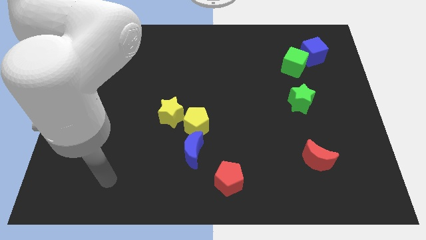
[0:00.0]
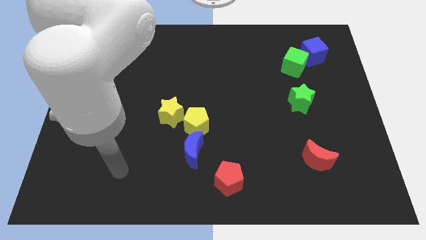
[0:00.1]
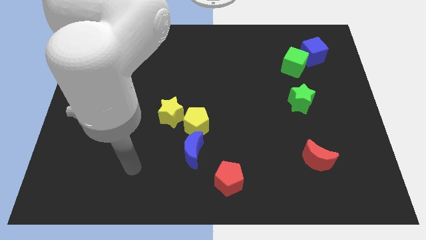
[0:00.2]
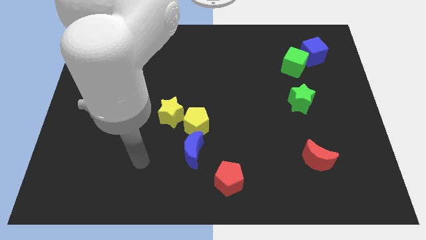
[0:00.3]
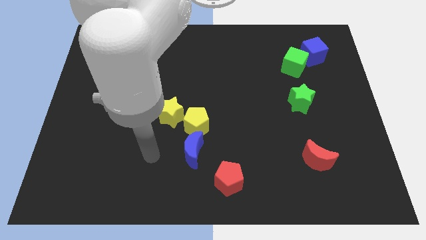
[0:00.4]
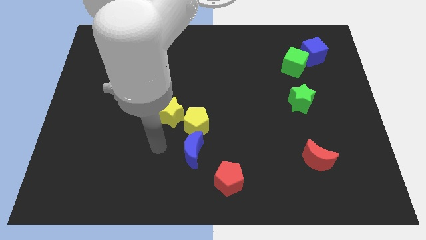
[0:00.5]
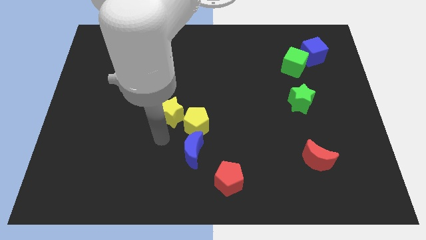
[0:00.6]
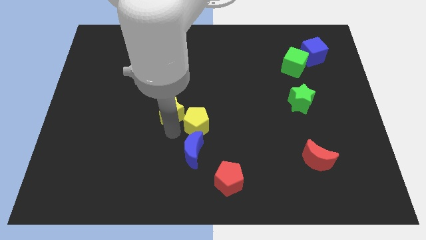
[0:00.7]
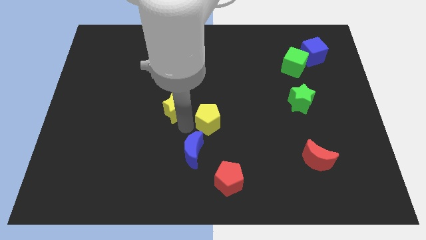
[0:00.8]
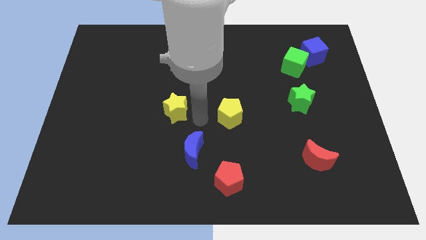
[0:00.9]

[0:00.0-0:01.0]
move the yellow star away from the yellow pentagon

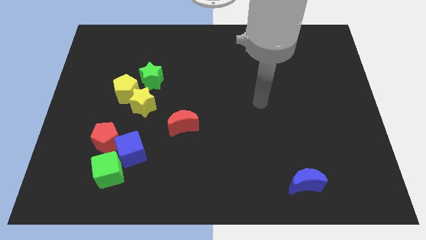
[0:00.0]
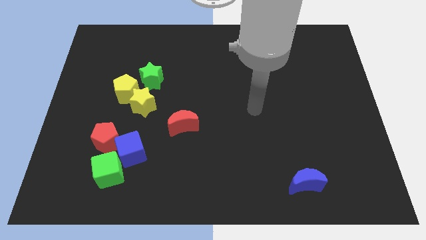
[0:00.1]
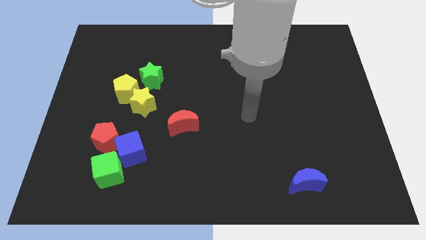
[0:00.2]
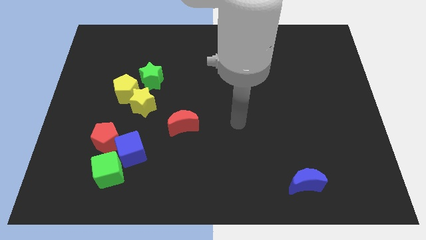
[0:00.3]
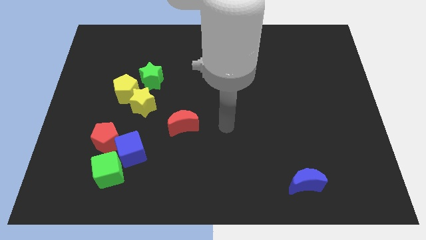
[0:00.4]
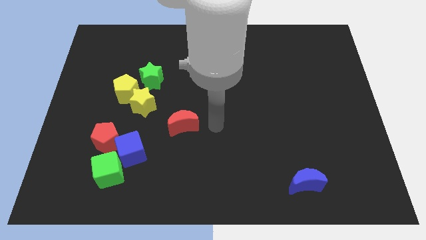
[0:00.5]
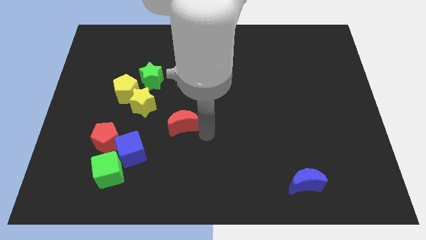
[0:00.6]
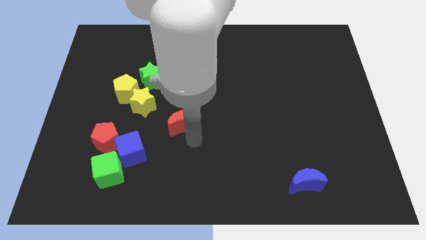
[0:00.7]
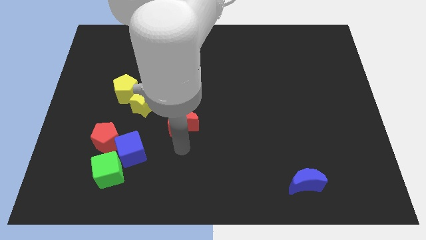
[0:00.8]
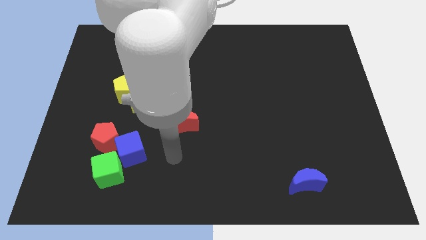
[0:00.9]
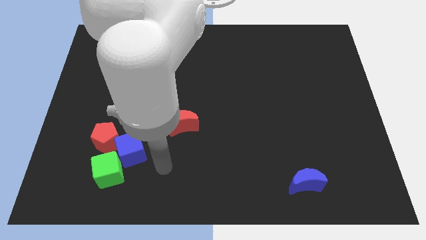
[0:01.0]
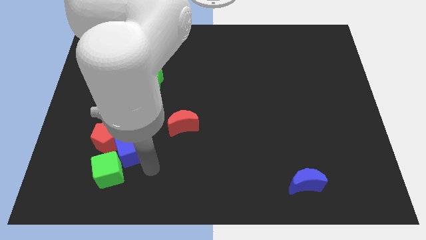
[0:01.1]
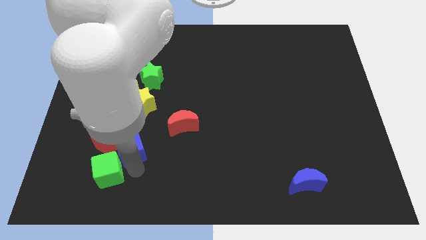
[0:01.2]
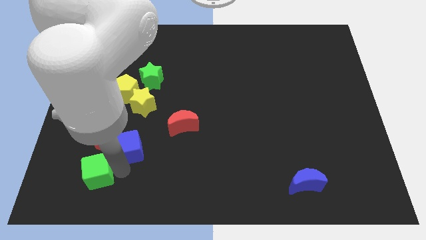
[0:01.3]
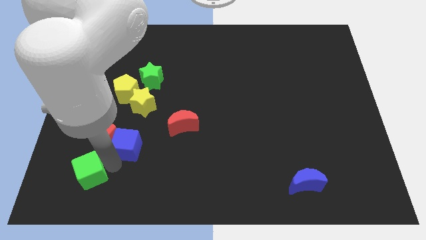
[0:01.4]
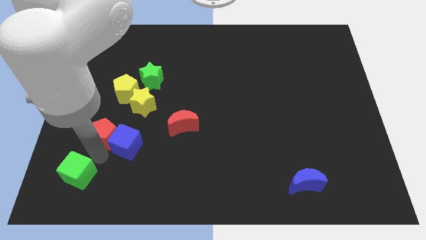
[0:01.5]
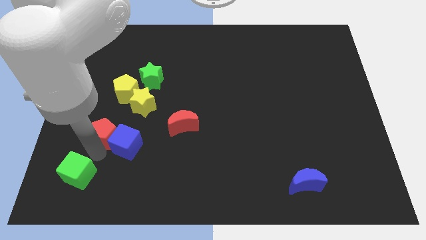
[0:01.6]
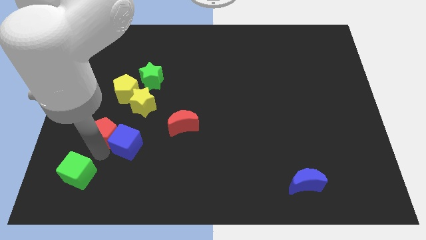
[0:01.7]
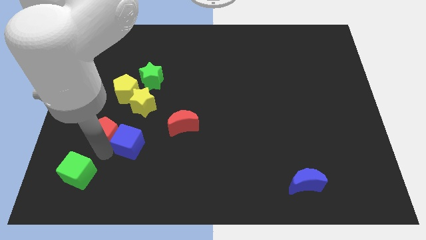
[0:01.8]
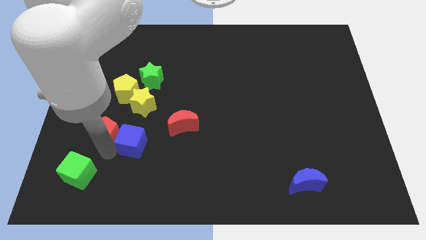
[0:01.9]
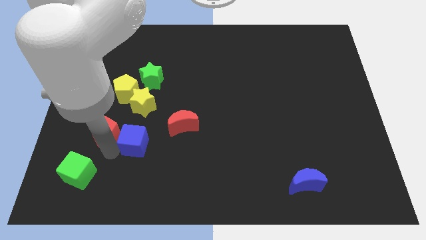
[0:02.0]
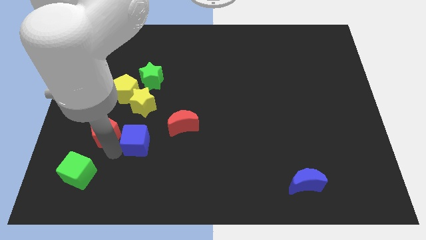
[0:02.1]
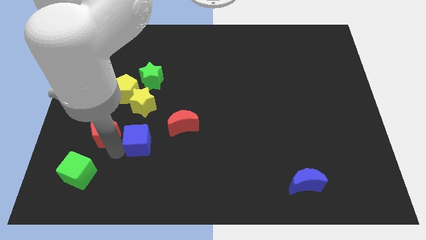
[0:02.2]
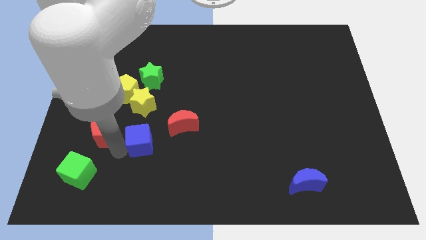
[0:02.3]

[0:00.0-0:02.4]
separate the blue cube from the red pentagon and green cube

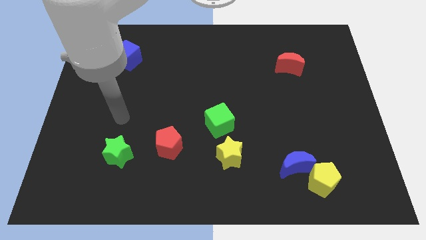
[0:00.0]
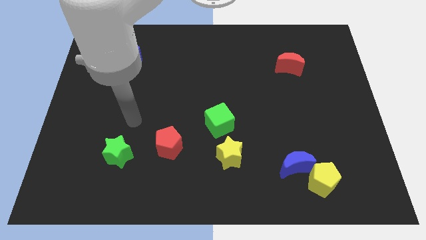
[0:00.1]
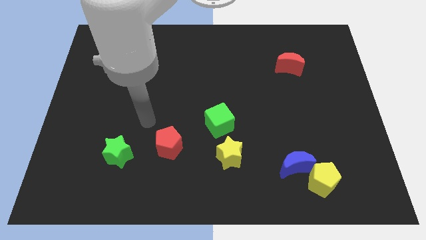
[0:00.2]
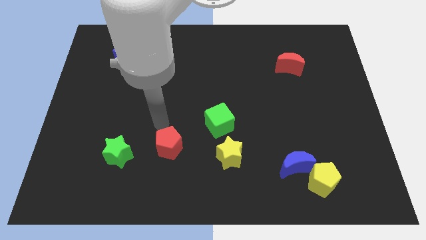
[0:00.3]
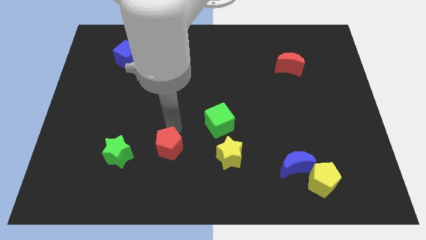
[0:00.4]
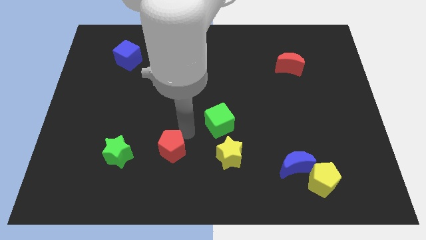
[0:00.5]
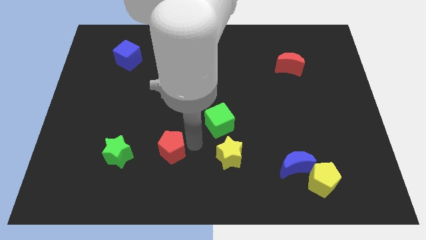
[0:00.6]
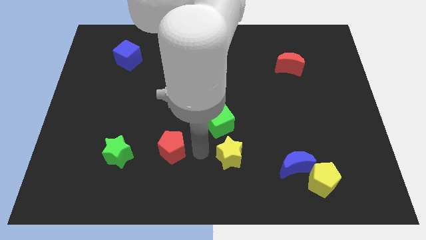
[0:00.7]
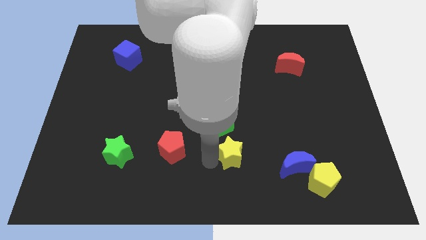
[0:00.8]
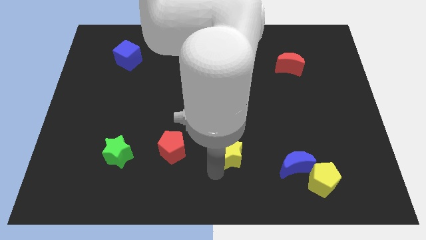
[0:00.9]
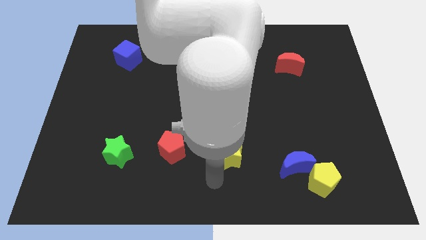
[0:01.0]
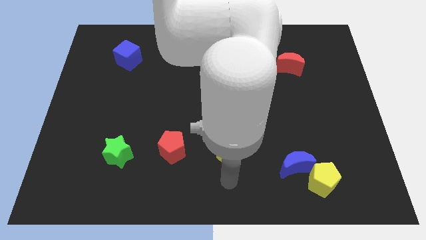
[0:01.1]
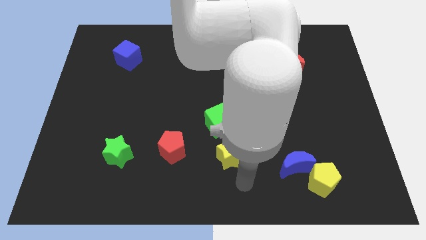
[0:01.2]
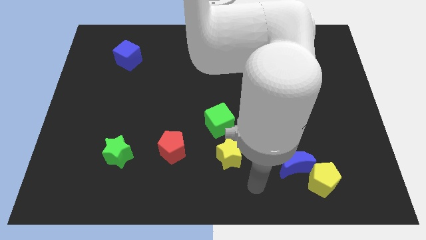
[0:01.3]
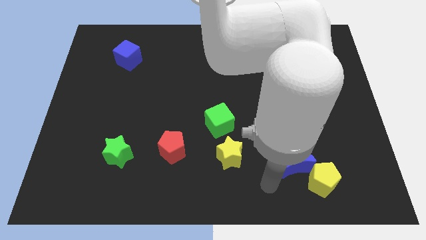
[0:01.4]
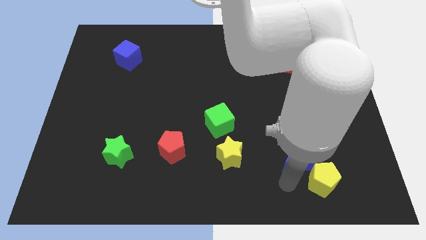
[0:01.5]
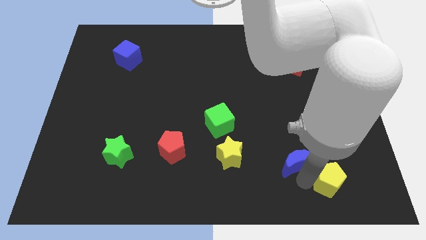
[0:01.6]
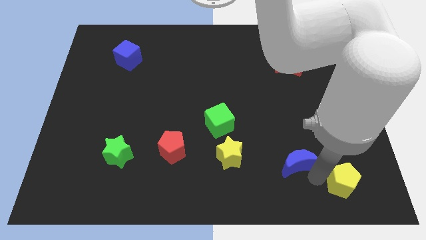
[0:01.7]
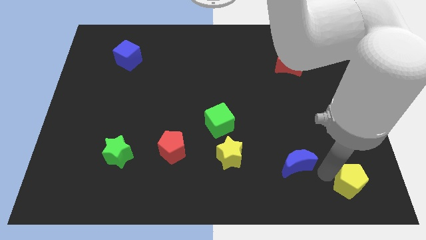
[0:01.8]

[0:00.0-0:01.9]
move the blue moon away from the yellow pentagon

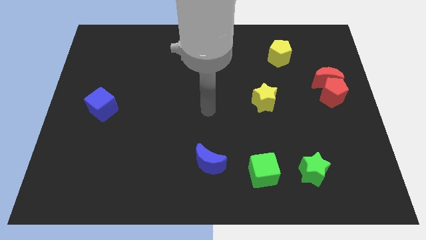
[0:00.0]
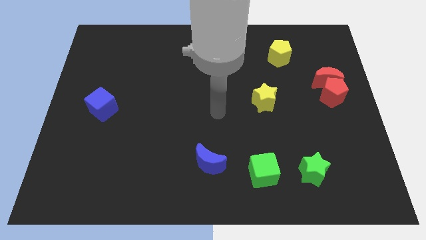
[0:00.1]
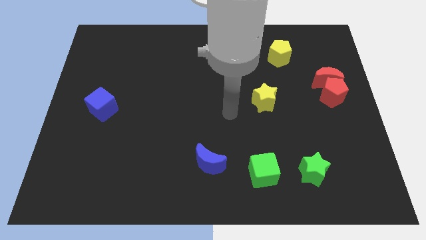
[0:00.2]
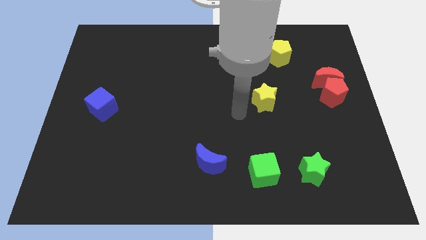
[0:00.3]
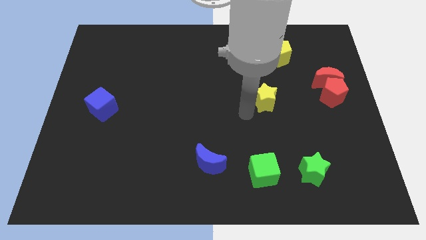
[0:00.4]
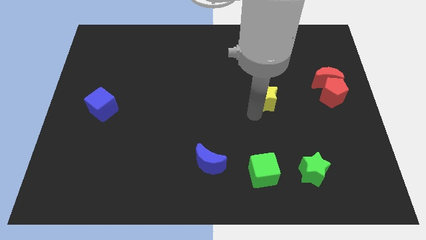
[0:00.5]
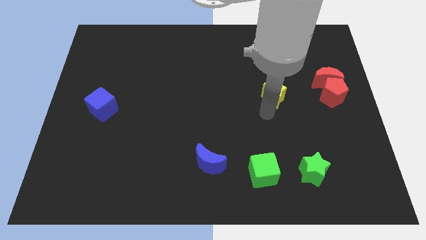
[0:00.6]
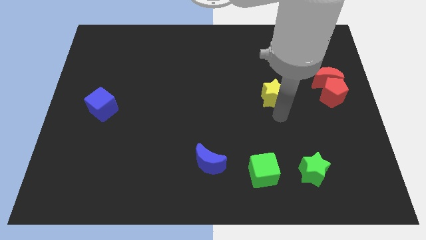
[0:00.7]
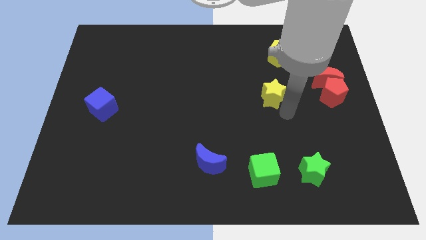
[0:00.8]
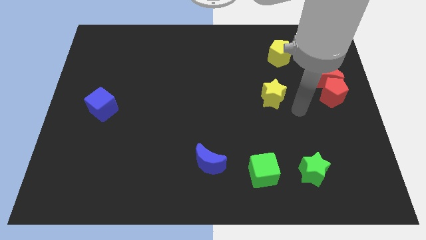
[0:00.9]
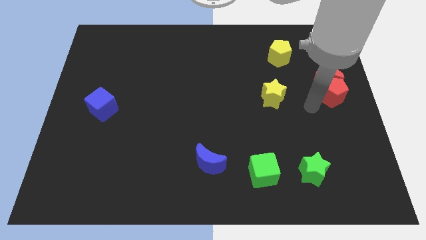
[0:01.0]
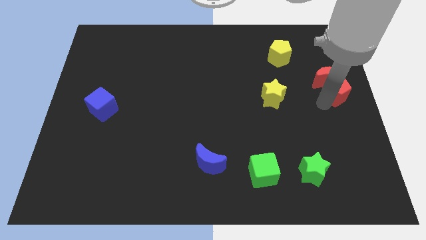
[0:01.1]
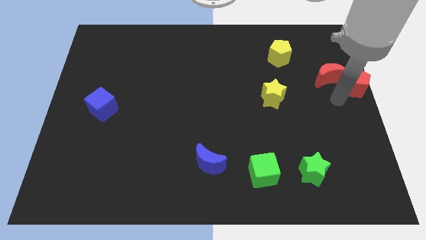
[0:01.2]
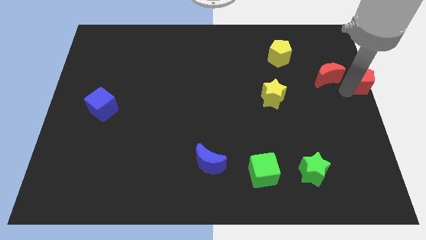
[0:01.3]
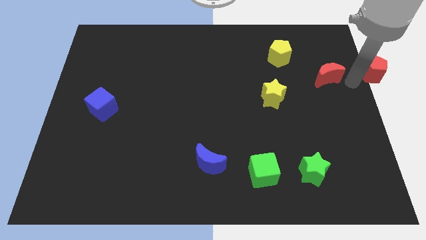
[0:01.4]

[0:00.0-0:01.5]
move the red moon away from the red pentagon

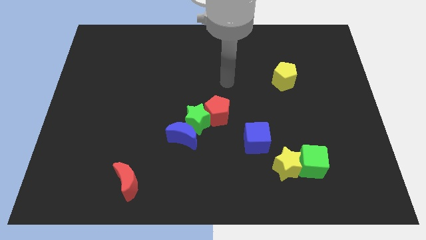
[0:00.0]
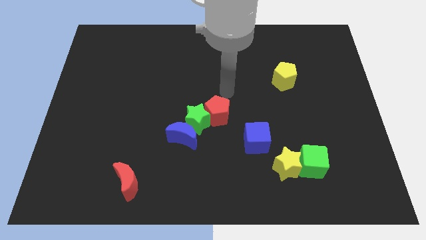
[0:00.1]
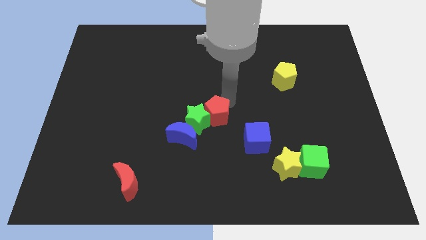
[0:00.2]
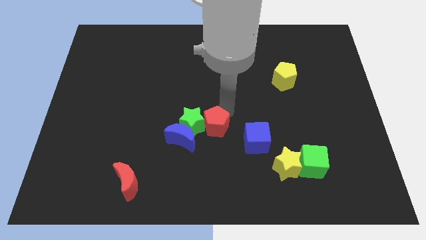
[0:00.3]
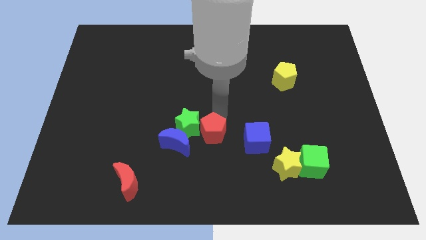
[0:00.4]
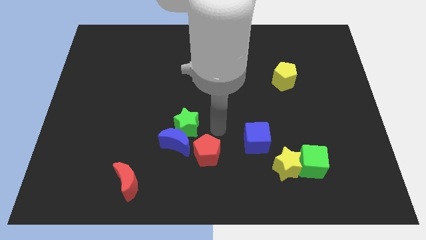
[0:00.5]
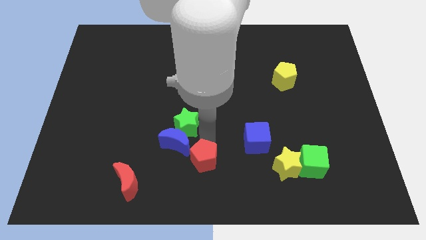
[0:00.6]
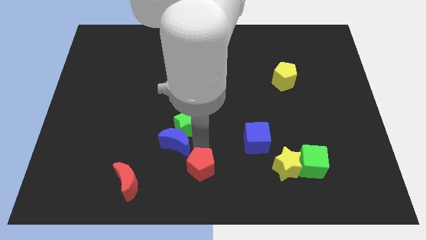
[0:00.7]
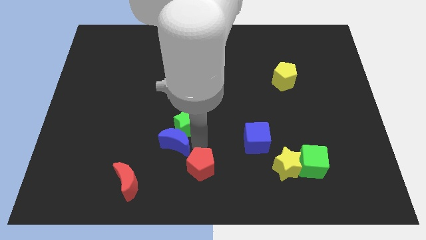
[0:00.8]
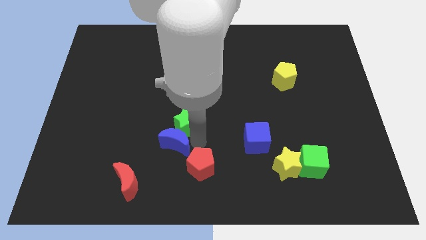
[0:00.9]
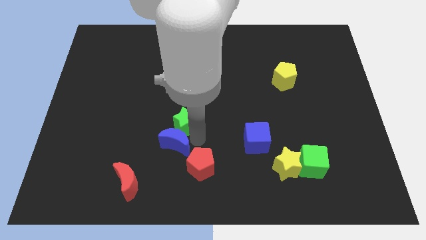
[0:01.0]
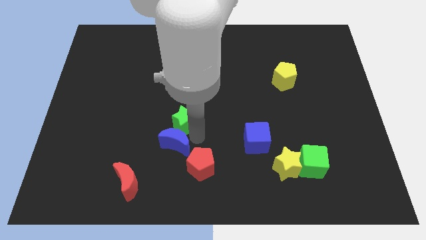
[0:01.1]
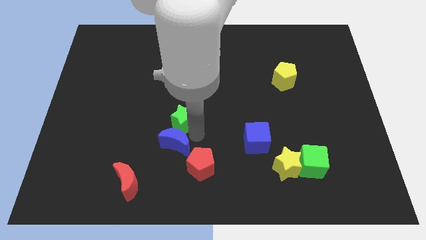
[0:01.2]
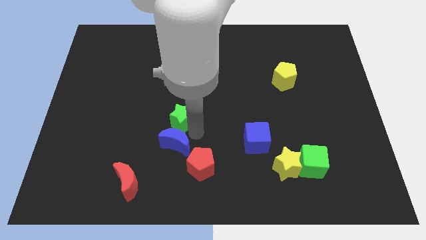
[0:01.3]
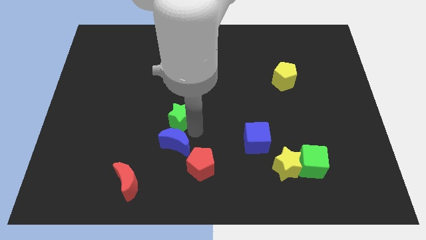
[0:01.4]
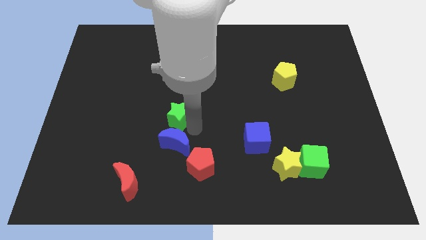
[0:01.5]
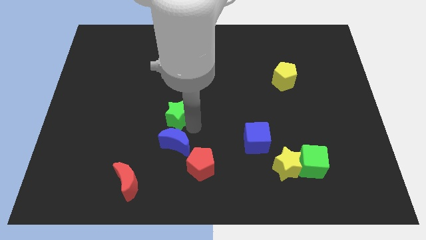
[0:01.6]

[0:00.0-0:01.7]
move the green star away from the blue moon and red pentagon

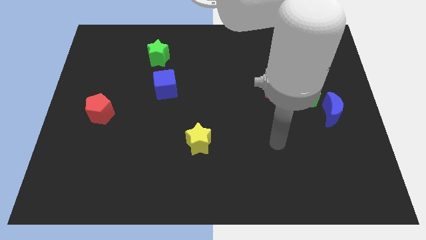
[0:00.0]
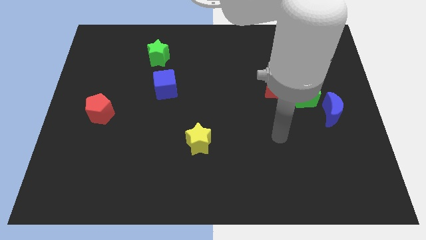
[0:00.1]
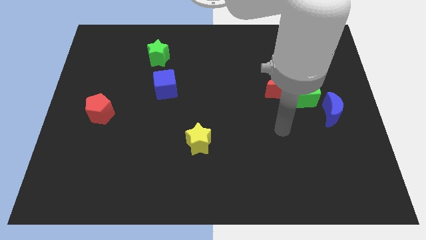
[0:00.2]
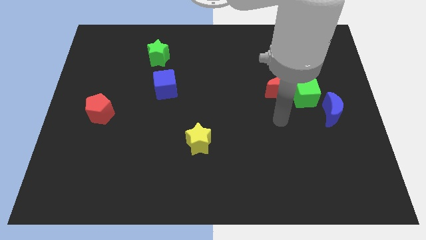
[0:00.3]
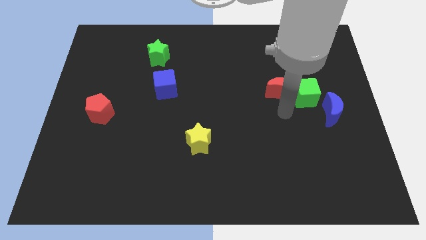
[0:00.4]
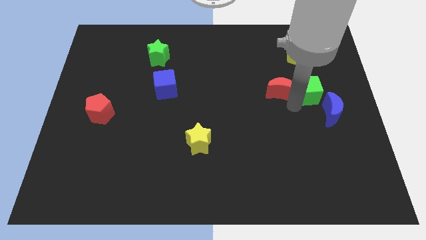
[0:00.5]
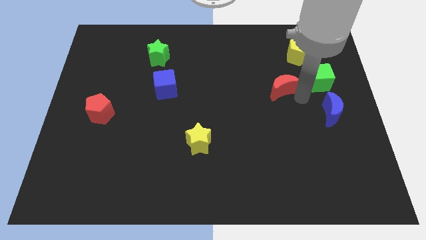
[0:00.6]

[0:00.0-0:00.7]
move the red moon away from the green cube
